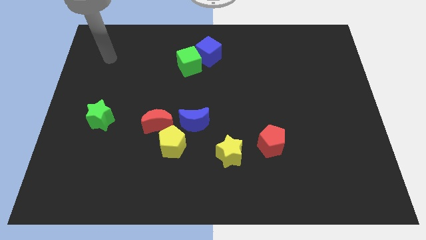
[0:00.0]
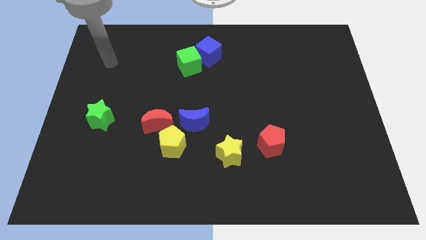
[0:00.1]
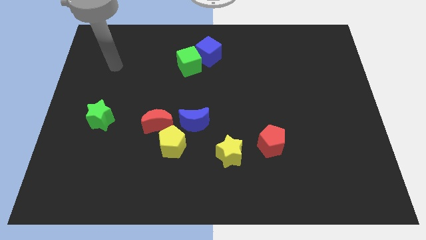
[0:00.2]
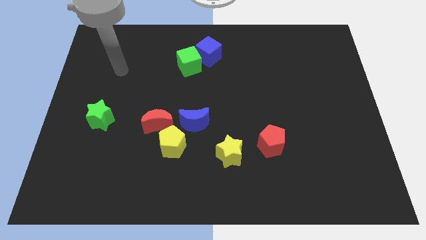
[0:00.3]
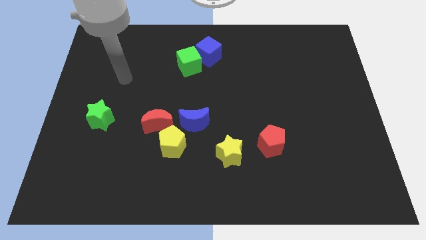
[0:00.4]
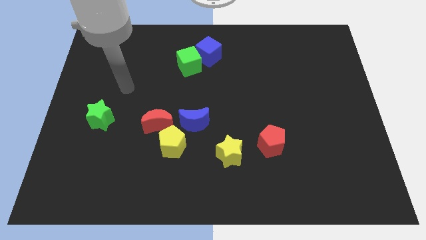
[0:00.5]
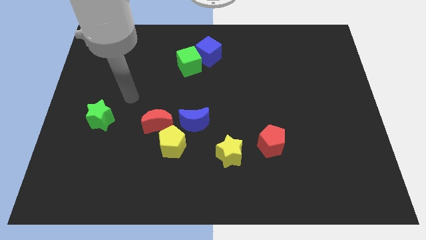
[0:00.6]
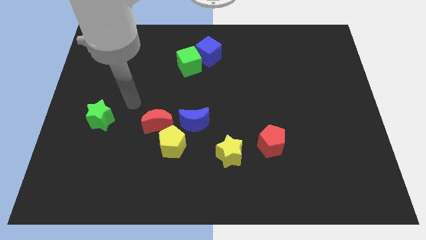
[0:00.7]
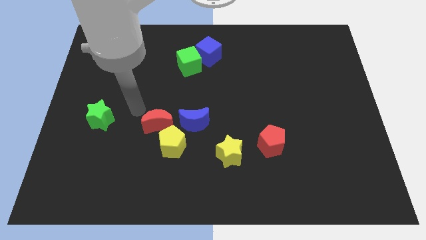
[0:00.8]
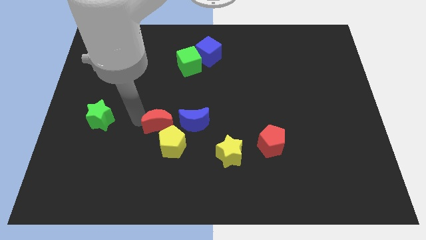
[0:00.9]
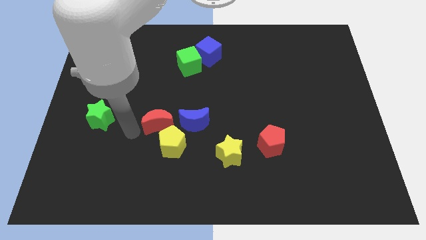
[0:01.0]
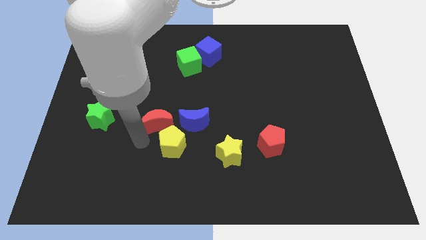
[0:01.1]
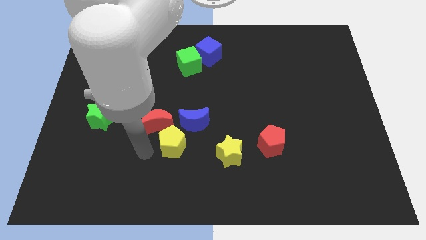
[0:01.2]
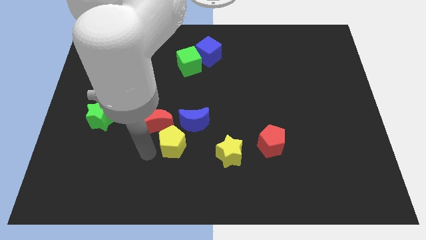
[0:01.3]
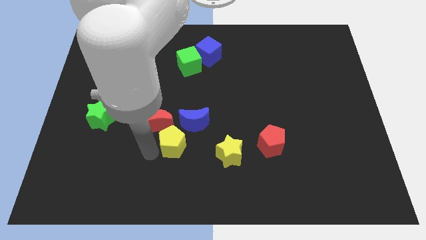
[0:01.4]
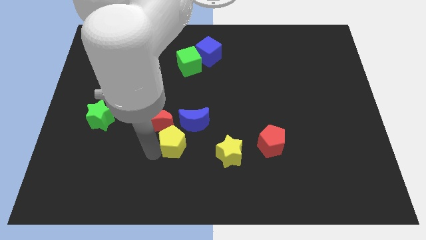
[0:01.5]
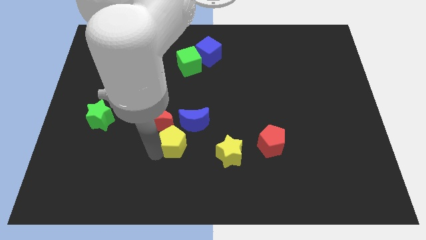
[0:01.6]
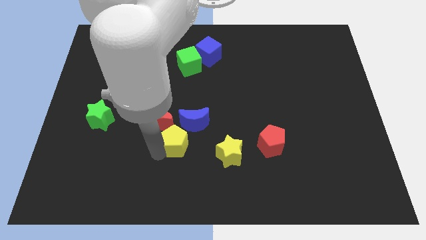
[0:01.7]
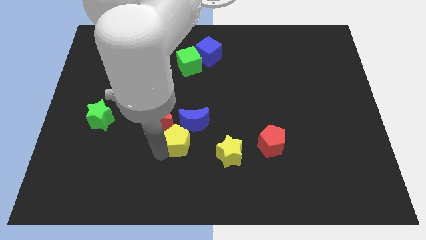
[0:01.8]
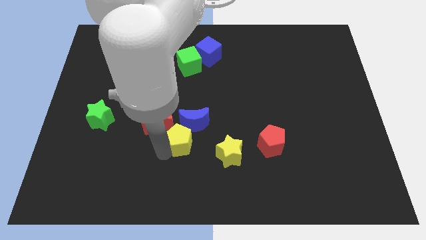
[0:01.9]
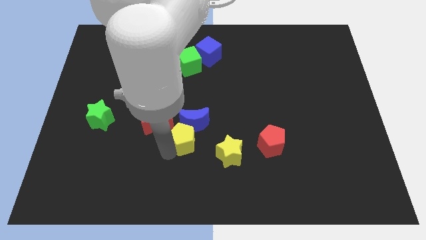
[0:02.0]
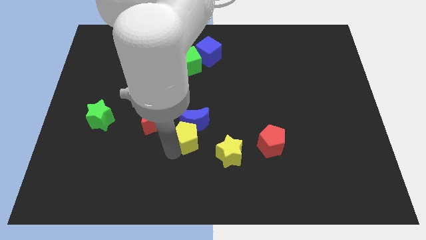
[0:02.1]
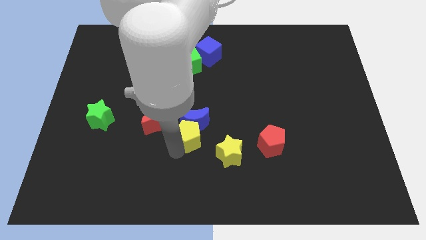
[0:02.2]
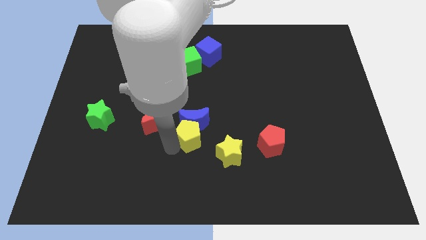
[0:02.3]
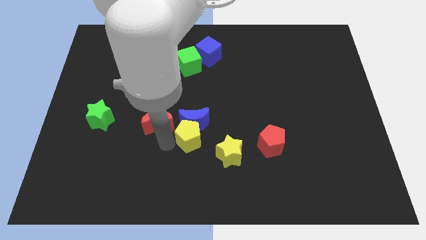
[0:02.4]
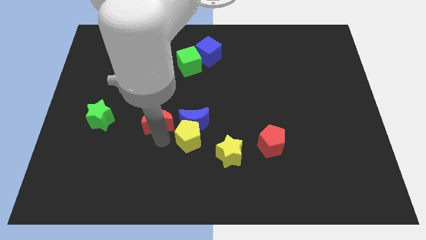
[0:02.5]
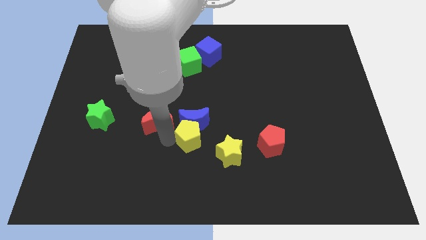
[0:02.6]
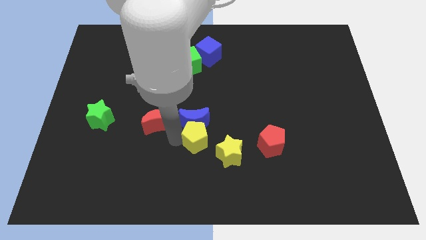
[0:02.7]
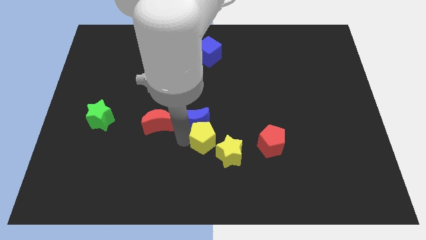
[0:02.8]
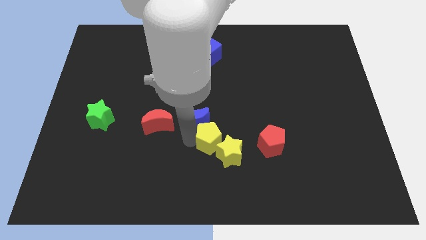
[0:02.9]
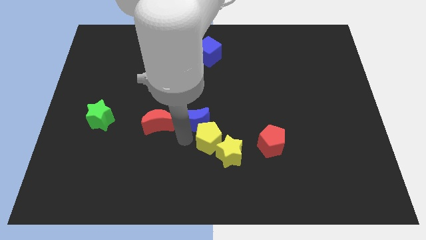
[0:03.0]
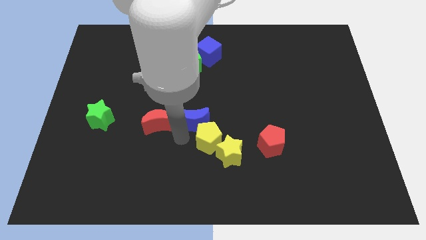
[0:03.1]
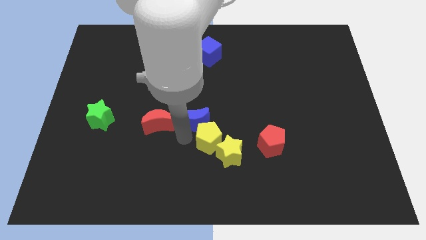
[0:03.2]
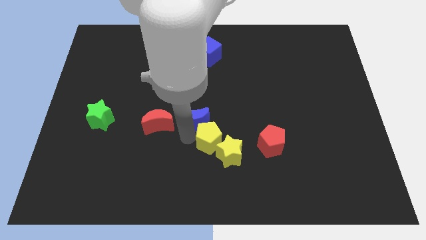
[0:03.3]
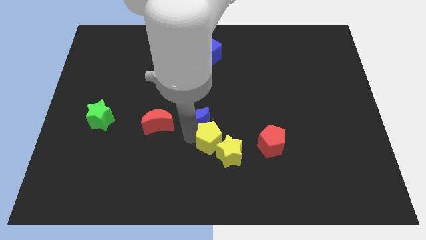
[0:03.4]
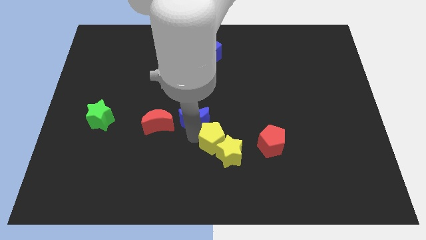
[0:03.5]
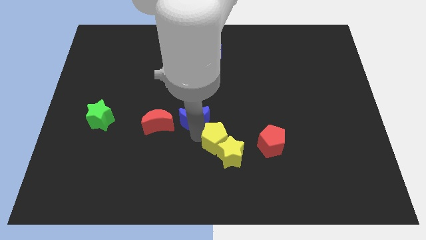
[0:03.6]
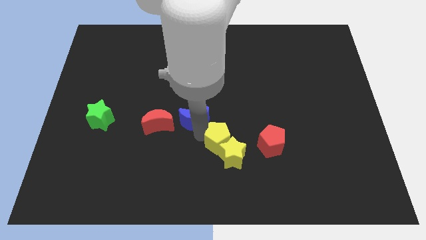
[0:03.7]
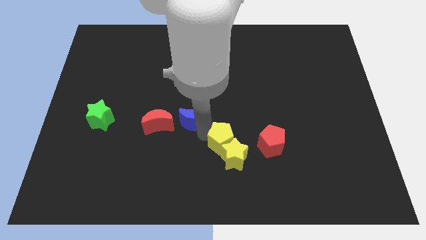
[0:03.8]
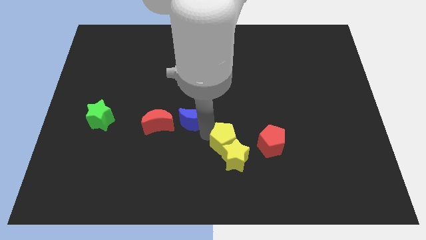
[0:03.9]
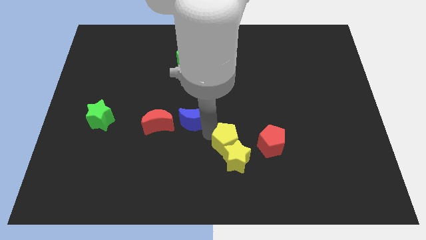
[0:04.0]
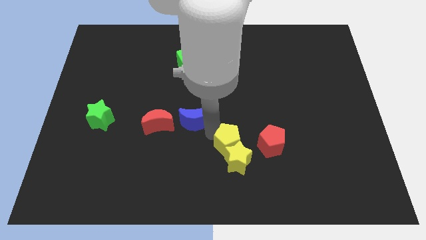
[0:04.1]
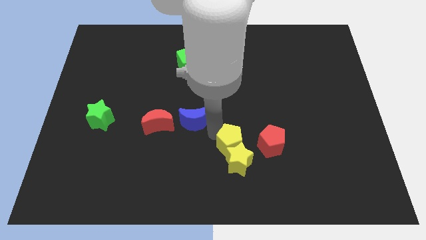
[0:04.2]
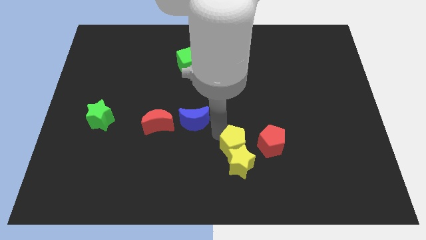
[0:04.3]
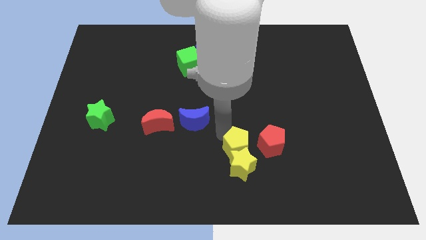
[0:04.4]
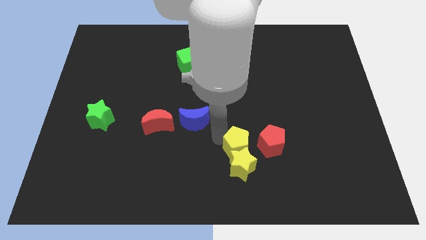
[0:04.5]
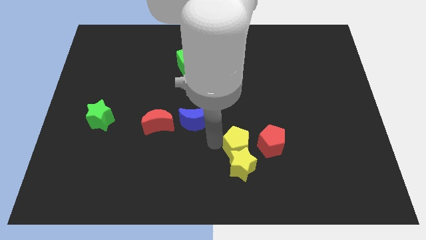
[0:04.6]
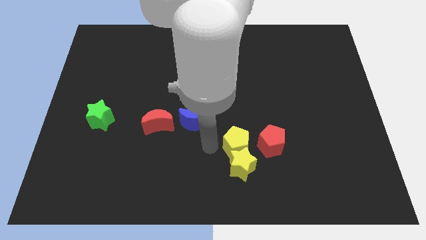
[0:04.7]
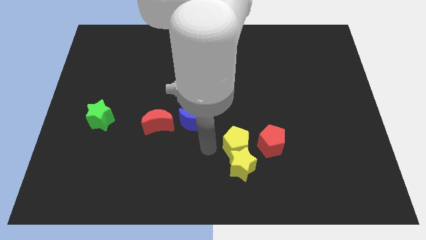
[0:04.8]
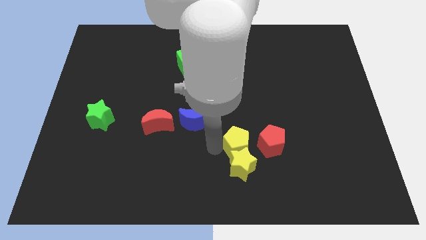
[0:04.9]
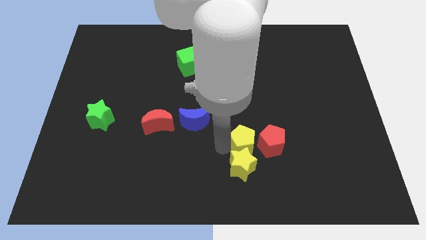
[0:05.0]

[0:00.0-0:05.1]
slide the yellow pentagon towards the red pentagon

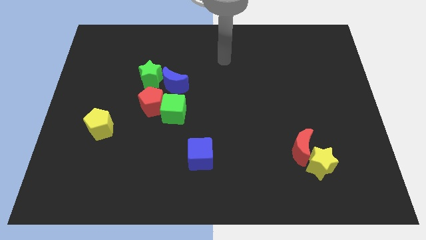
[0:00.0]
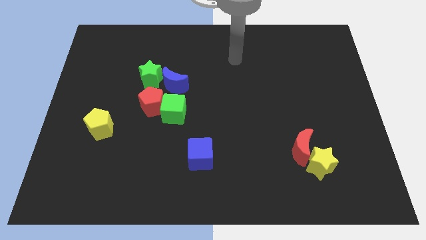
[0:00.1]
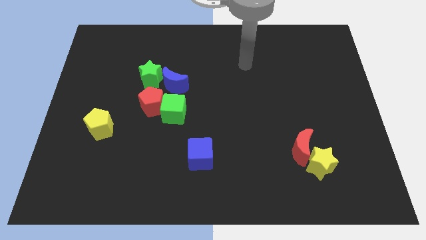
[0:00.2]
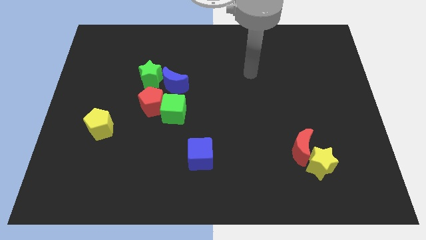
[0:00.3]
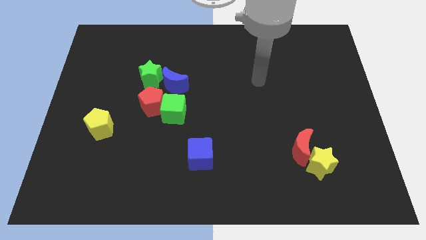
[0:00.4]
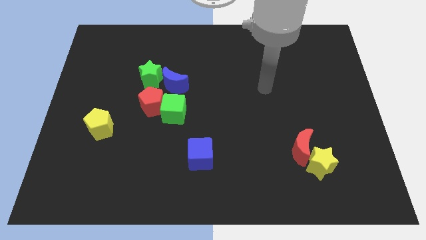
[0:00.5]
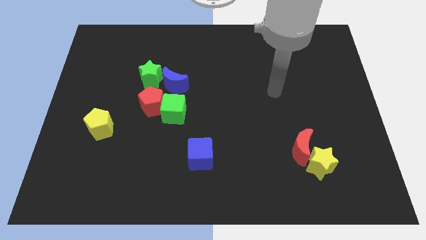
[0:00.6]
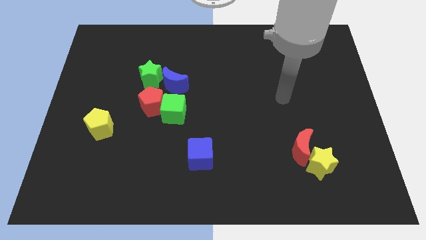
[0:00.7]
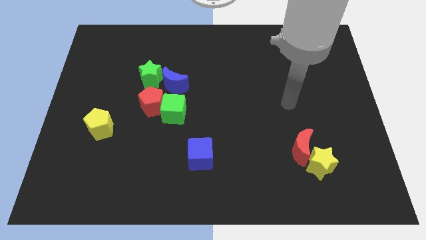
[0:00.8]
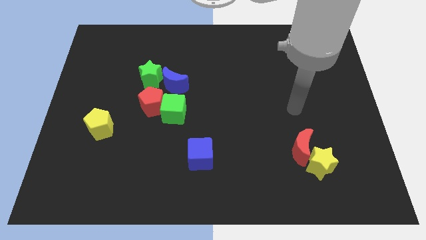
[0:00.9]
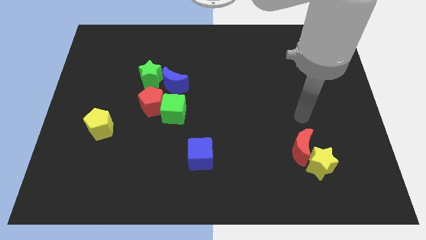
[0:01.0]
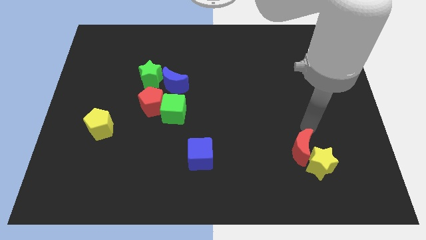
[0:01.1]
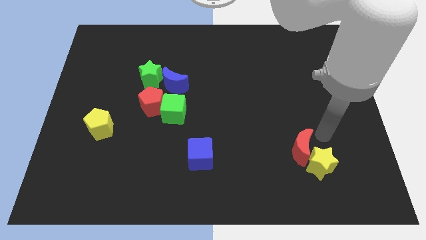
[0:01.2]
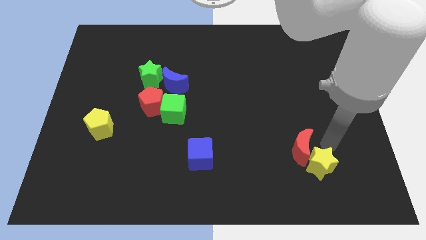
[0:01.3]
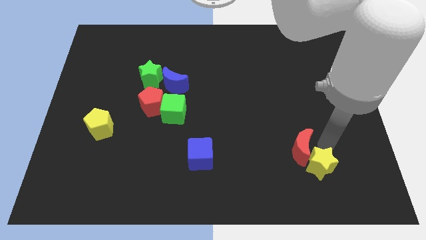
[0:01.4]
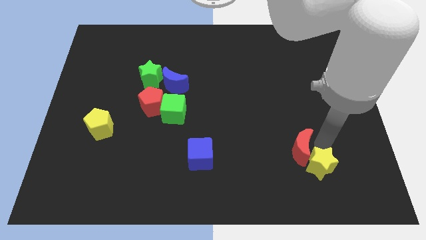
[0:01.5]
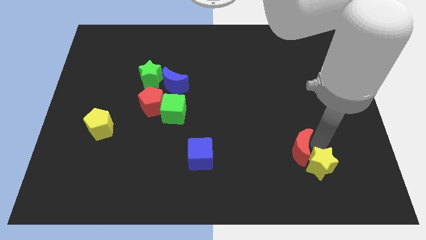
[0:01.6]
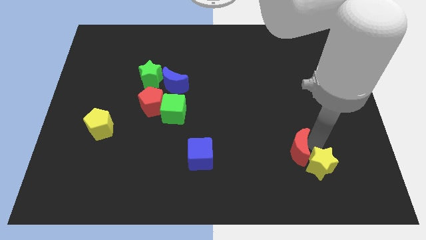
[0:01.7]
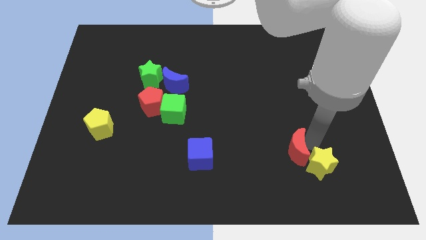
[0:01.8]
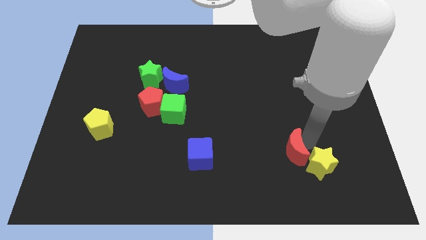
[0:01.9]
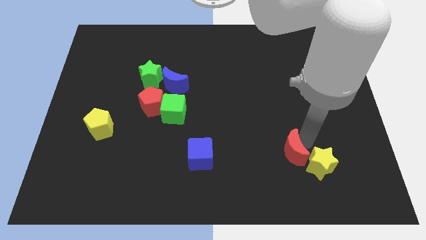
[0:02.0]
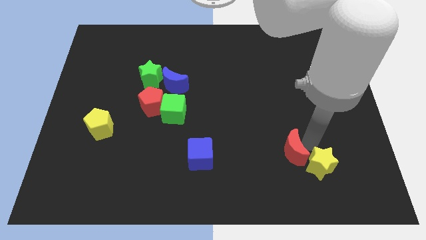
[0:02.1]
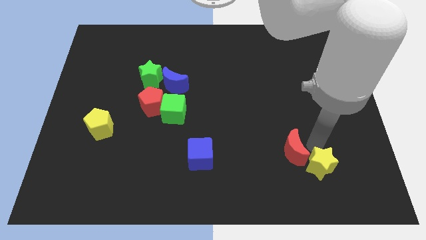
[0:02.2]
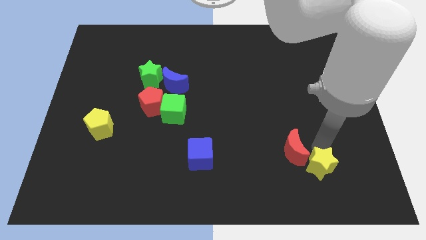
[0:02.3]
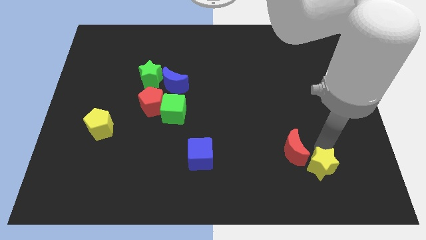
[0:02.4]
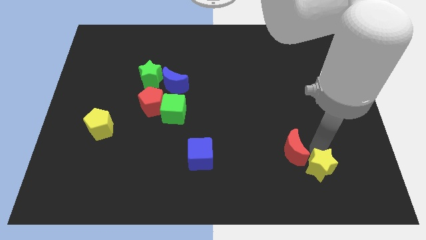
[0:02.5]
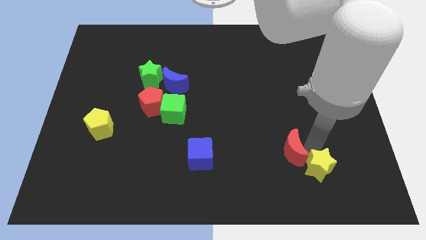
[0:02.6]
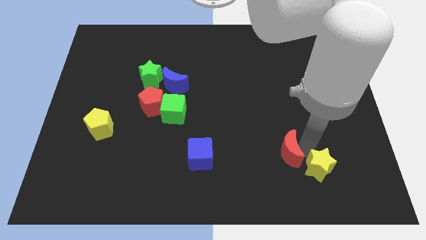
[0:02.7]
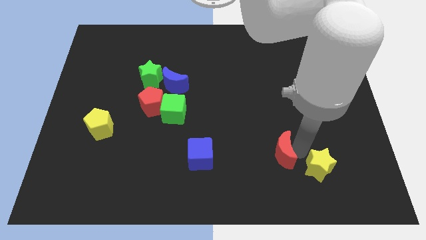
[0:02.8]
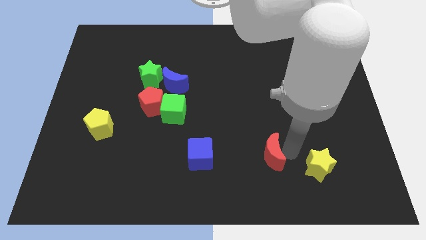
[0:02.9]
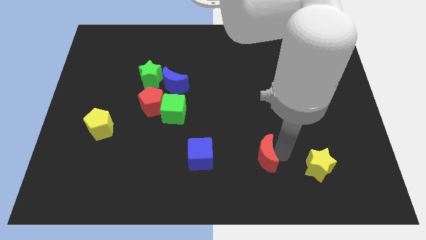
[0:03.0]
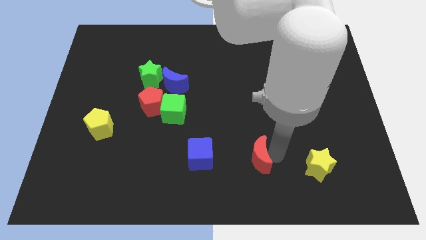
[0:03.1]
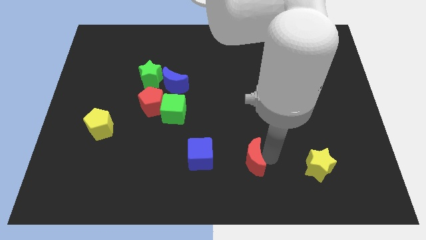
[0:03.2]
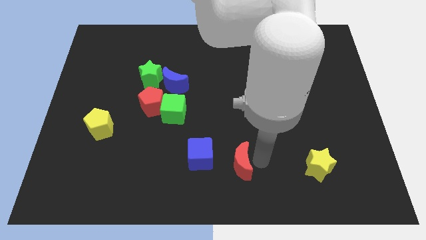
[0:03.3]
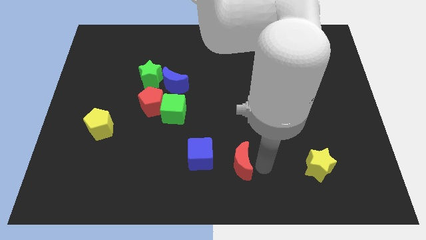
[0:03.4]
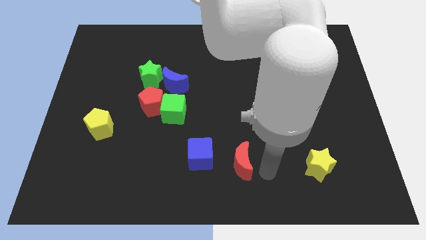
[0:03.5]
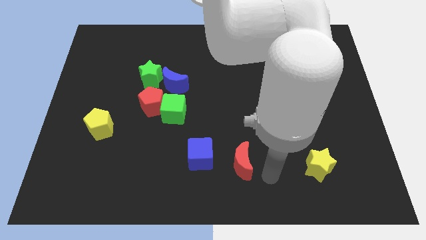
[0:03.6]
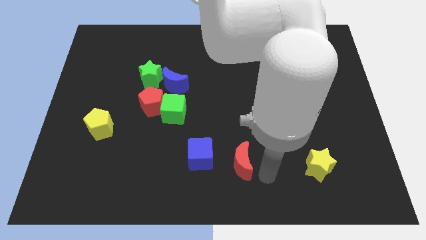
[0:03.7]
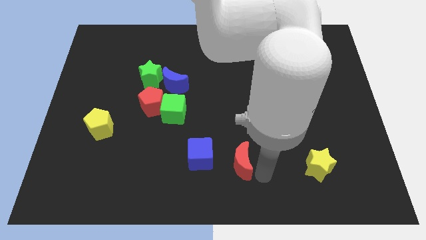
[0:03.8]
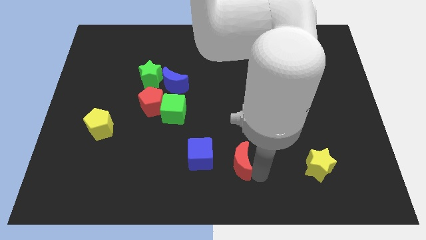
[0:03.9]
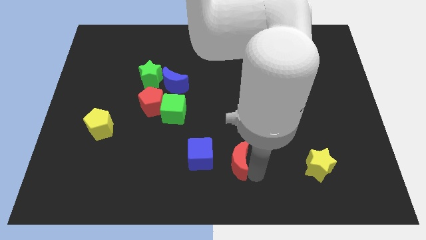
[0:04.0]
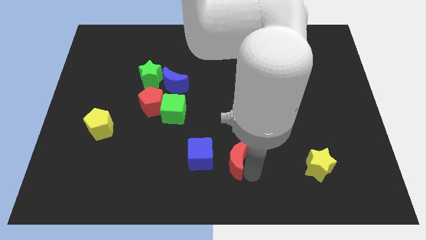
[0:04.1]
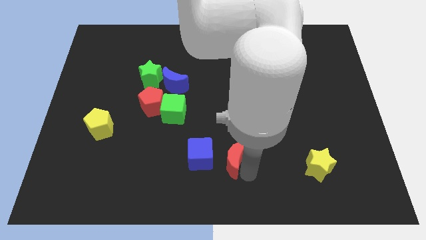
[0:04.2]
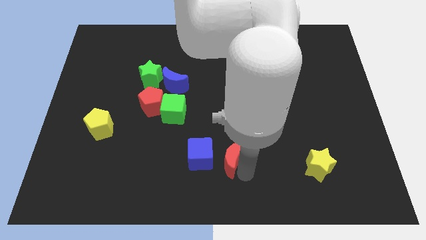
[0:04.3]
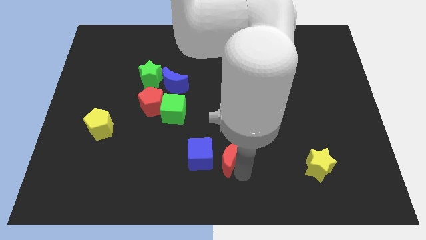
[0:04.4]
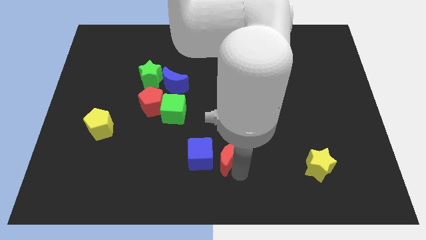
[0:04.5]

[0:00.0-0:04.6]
push the red moon next to the blue cube
